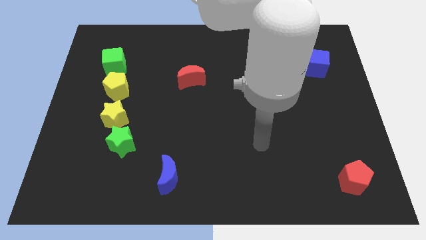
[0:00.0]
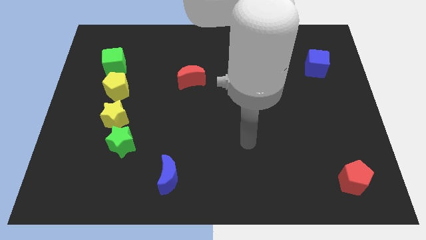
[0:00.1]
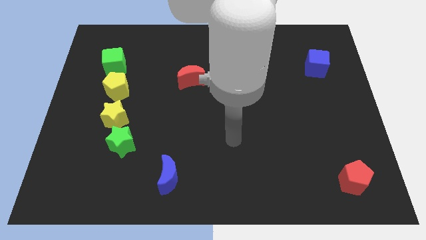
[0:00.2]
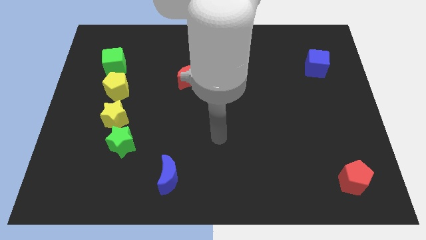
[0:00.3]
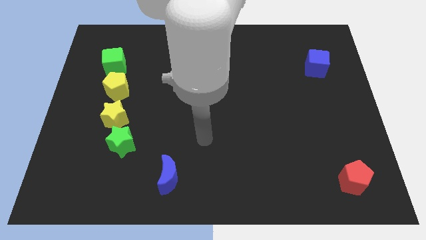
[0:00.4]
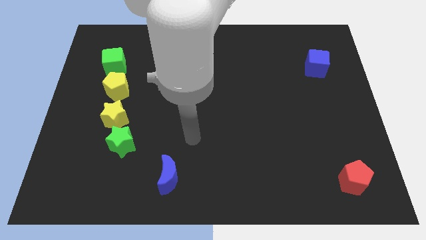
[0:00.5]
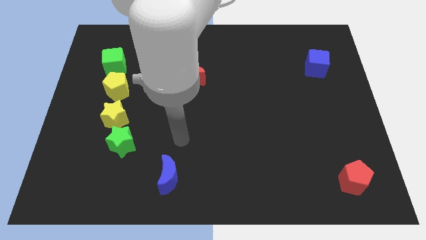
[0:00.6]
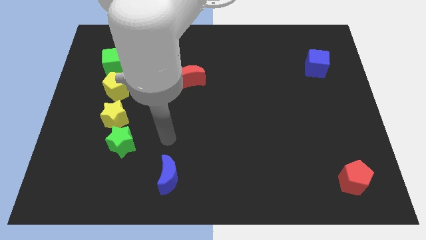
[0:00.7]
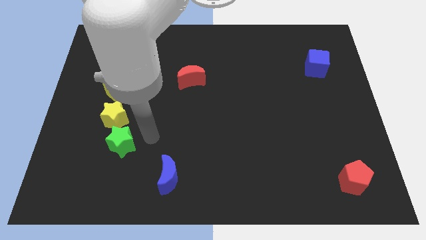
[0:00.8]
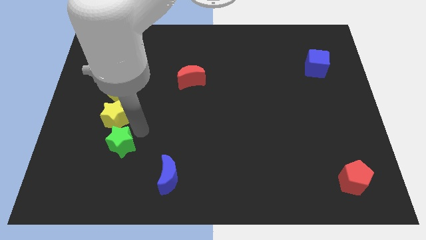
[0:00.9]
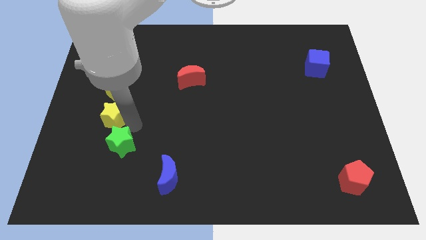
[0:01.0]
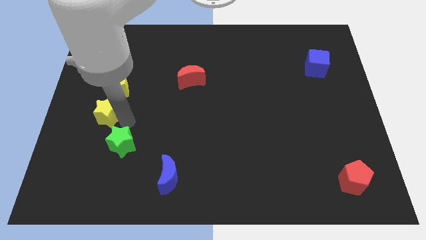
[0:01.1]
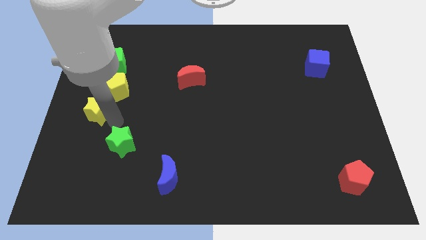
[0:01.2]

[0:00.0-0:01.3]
move the green star away from the yellow star

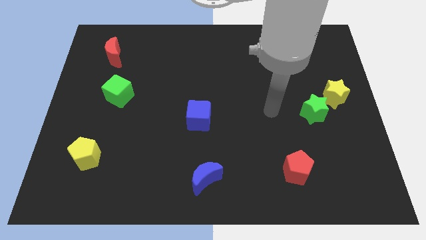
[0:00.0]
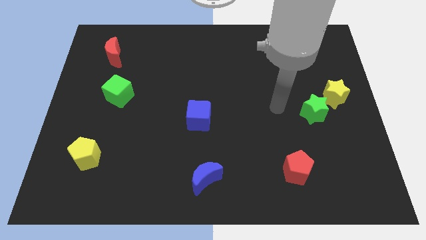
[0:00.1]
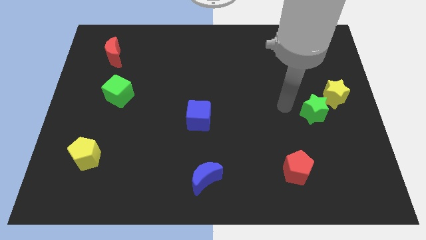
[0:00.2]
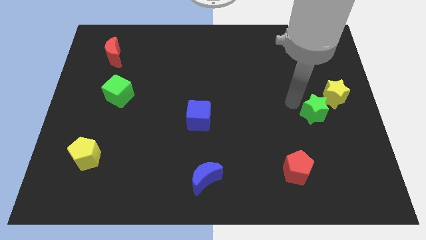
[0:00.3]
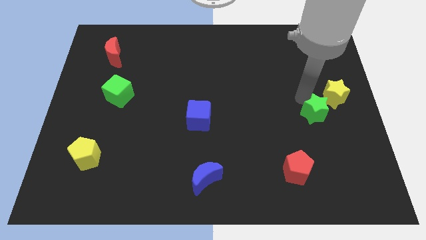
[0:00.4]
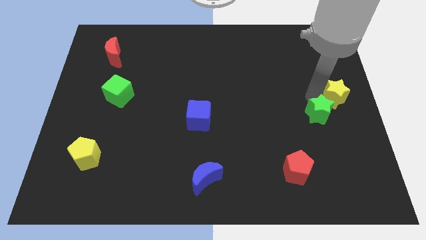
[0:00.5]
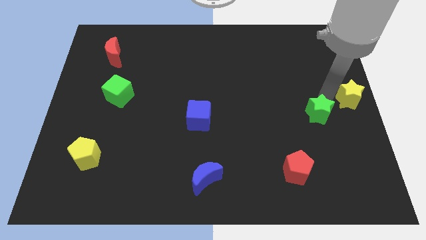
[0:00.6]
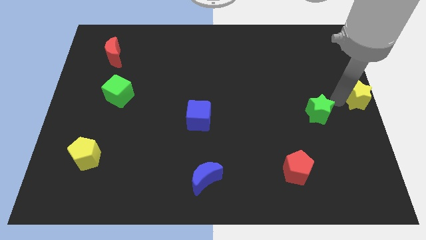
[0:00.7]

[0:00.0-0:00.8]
separate the green star from the yellow star

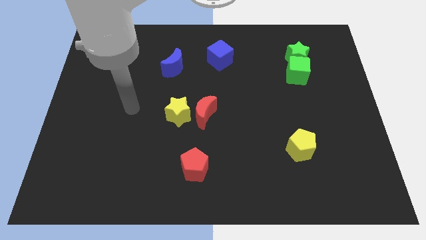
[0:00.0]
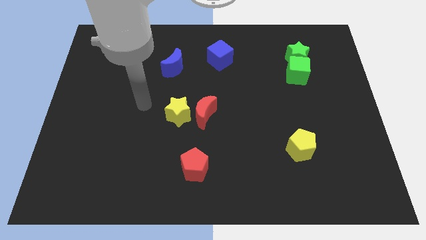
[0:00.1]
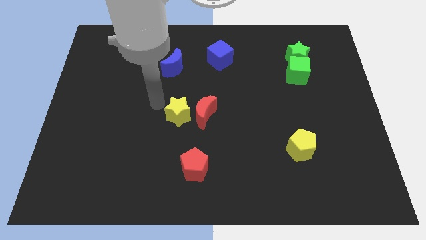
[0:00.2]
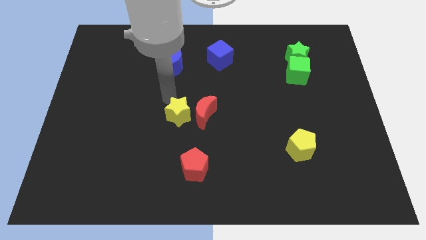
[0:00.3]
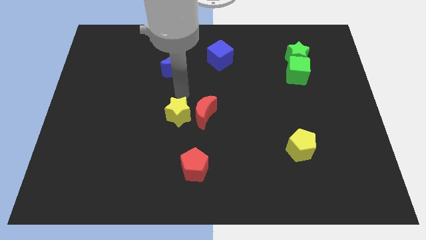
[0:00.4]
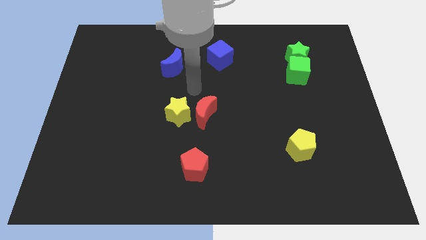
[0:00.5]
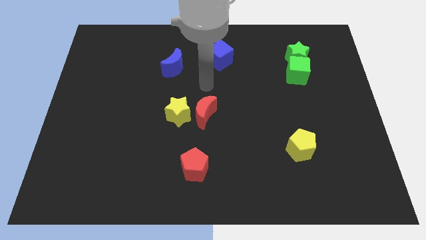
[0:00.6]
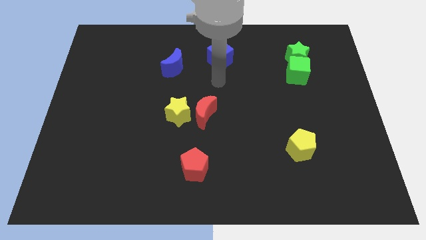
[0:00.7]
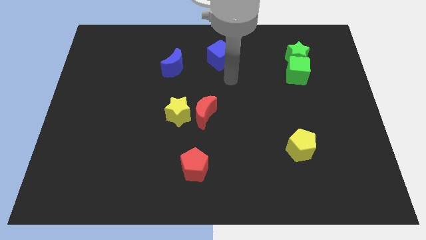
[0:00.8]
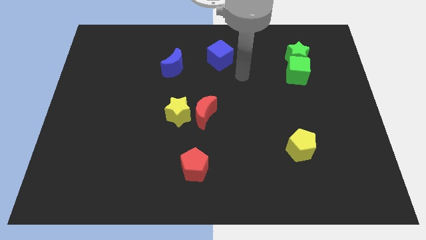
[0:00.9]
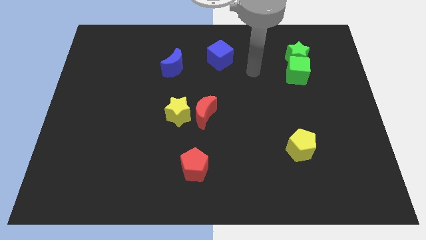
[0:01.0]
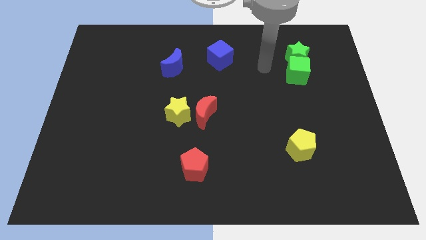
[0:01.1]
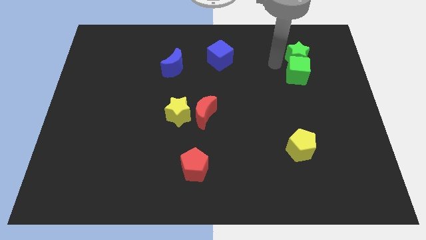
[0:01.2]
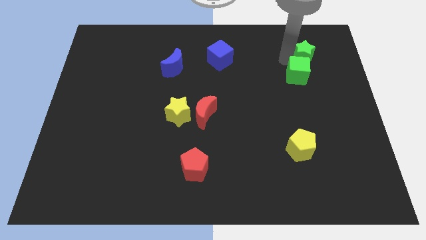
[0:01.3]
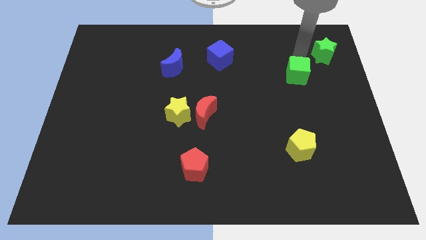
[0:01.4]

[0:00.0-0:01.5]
pull the green cube apart from the green star

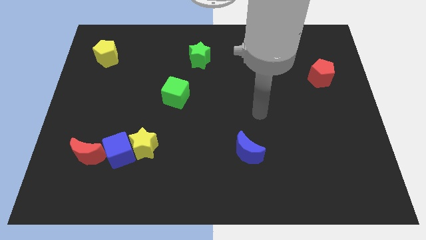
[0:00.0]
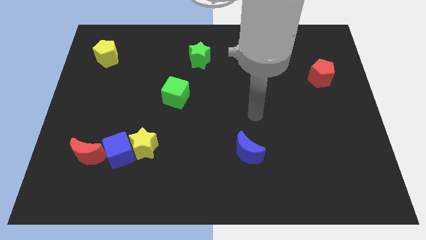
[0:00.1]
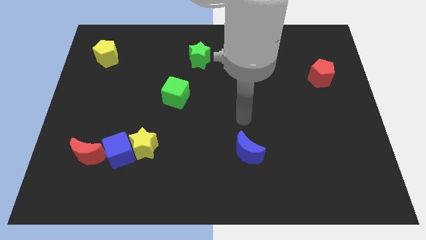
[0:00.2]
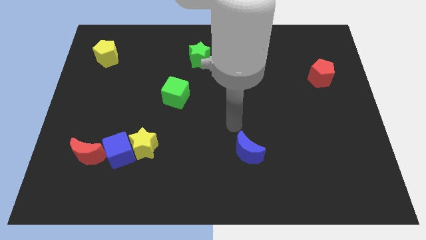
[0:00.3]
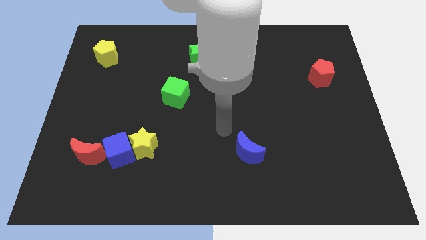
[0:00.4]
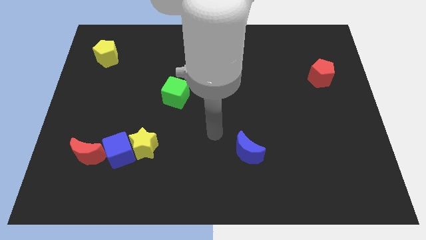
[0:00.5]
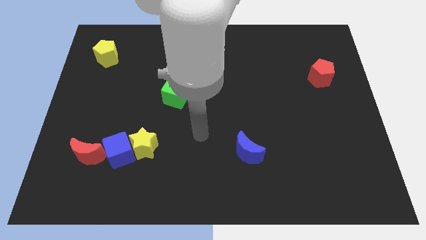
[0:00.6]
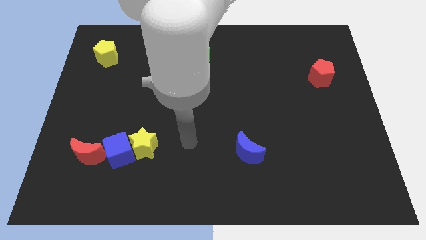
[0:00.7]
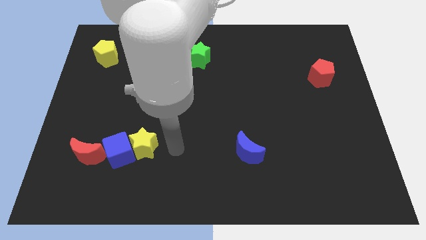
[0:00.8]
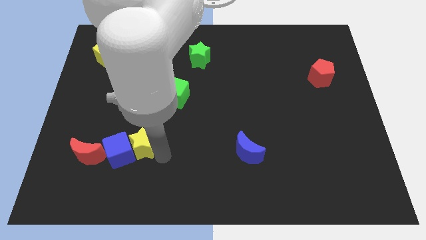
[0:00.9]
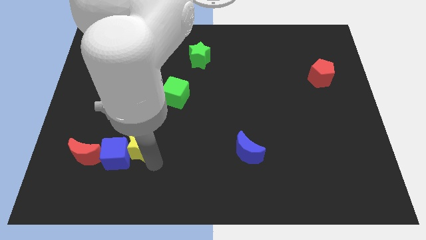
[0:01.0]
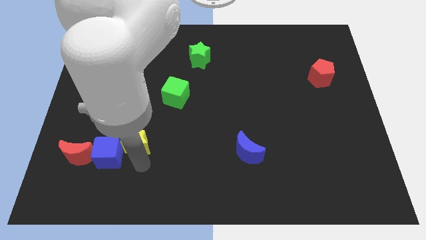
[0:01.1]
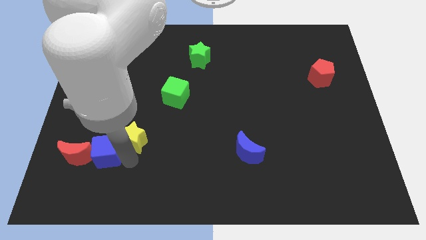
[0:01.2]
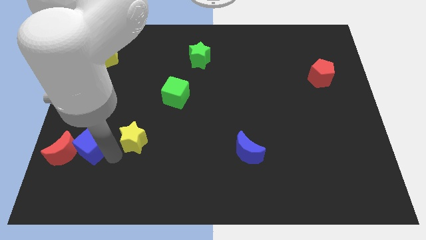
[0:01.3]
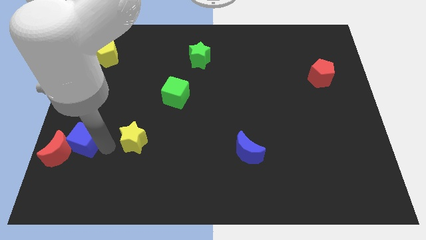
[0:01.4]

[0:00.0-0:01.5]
move the yellow star away from the blue cube

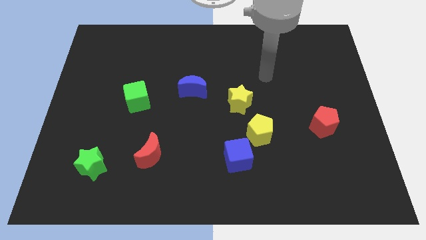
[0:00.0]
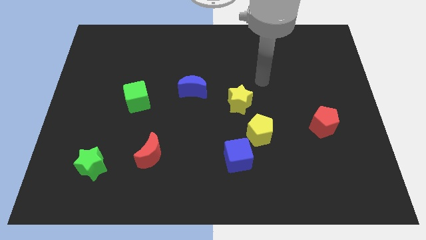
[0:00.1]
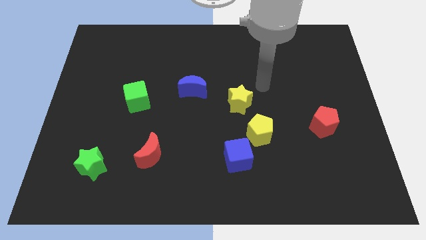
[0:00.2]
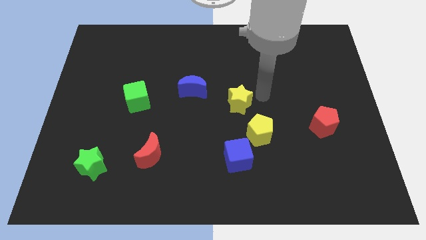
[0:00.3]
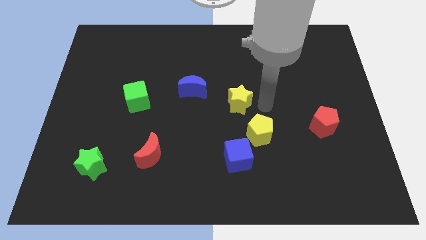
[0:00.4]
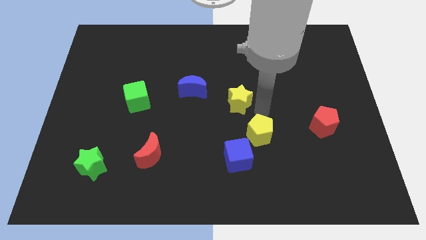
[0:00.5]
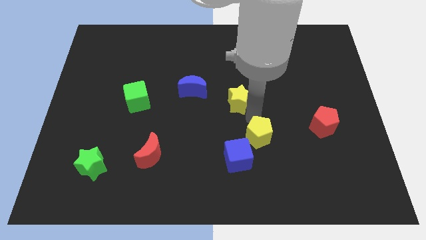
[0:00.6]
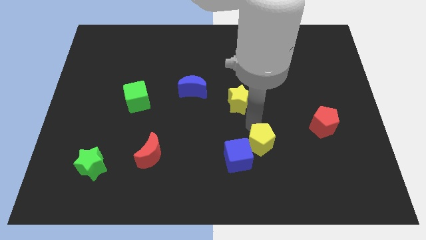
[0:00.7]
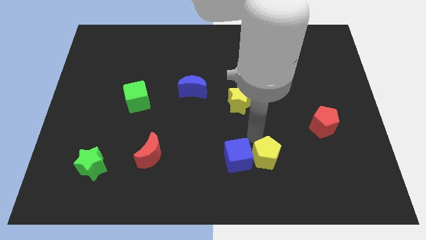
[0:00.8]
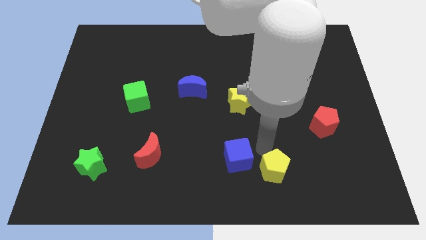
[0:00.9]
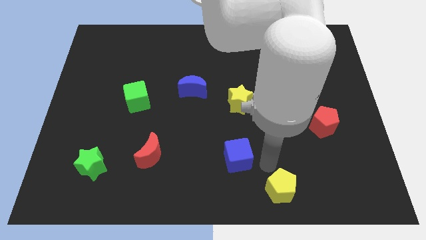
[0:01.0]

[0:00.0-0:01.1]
move the blue cube away from the yellow pentagon

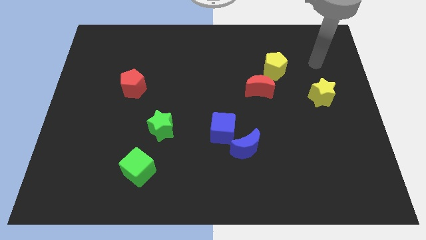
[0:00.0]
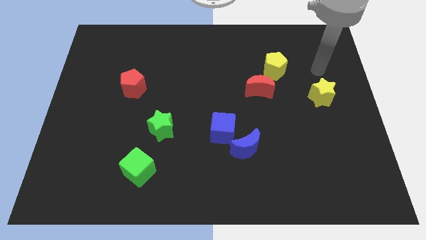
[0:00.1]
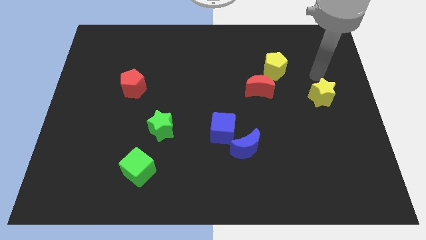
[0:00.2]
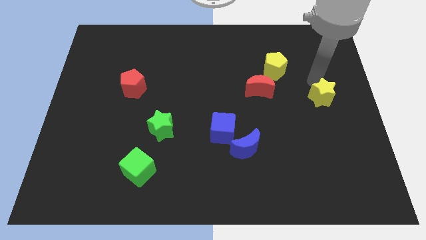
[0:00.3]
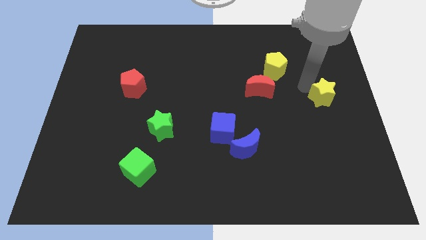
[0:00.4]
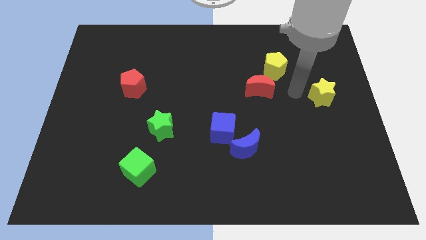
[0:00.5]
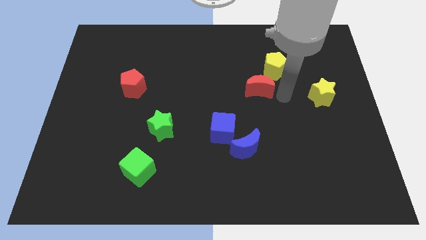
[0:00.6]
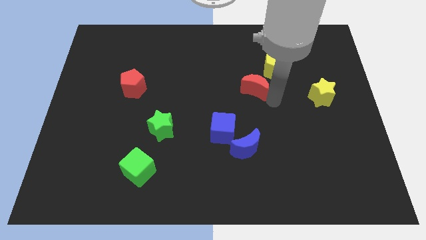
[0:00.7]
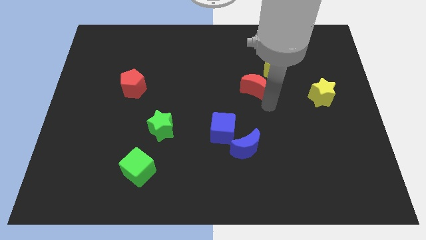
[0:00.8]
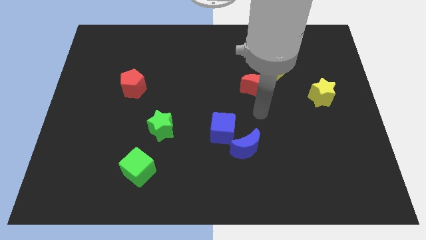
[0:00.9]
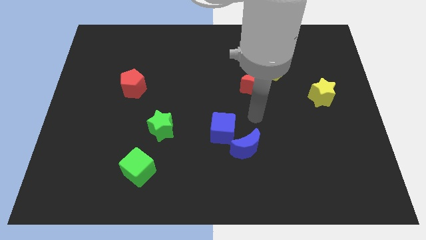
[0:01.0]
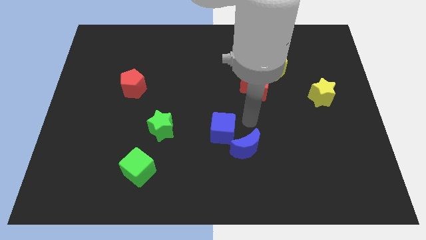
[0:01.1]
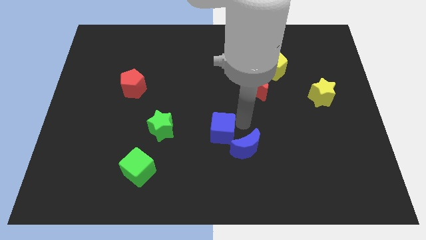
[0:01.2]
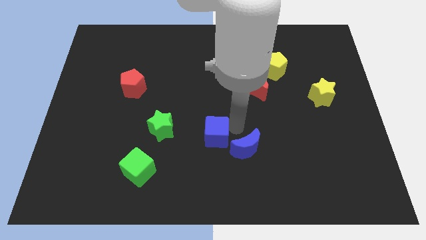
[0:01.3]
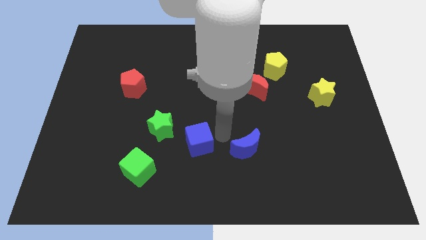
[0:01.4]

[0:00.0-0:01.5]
move the blue moon away from the blue cube

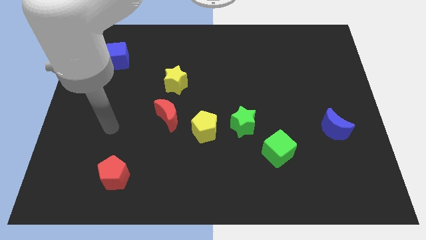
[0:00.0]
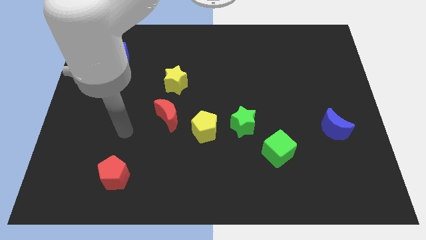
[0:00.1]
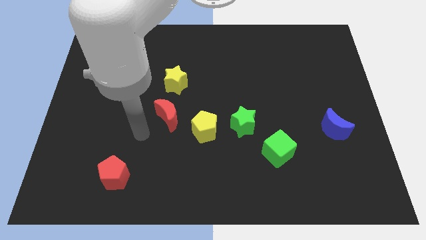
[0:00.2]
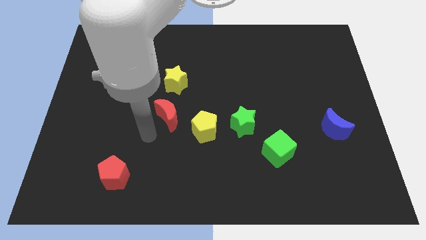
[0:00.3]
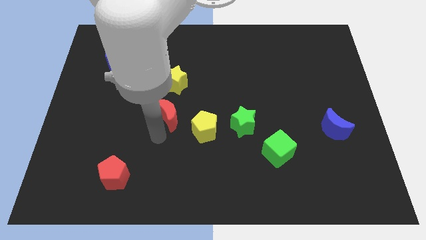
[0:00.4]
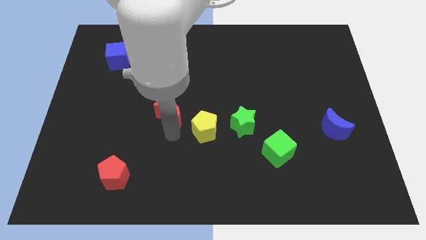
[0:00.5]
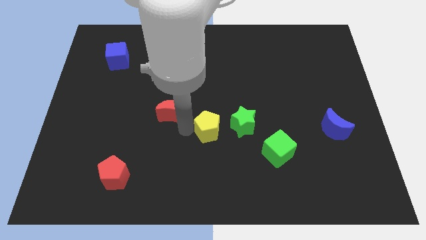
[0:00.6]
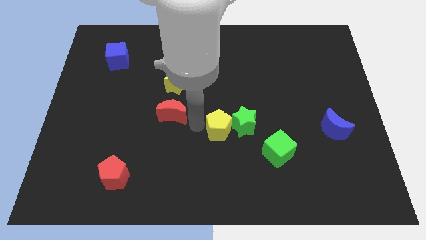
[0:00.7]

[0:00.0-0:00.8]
move the red moon away from the yellow pentagon

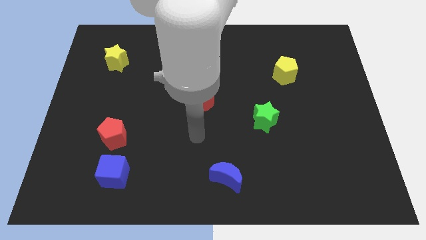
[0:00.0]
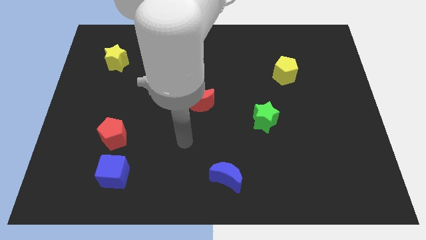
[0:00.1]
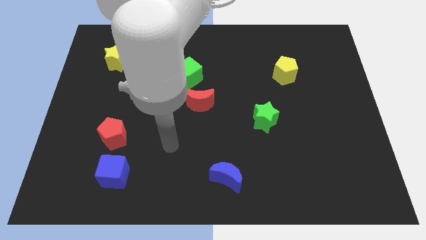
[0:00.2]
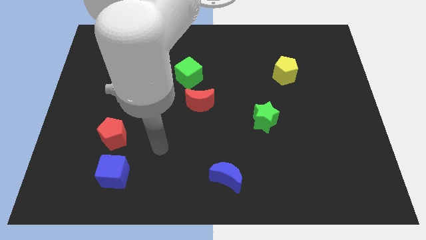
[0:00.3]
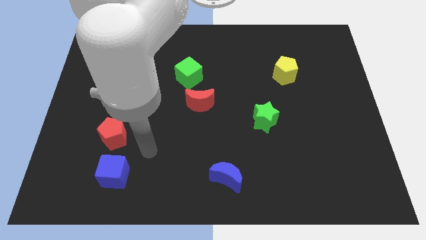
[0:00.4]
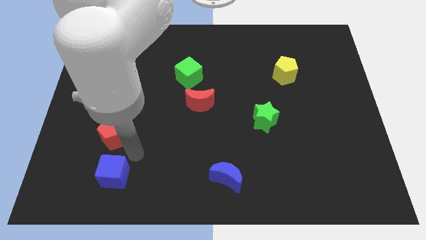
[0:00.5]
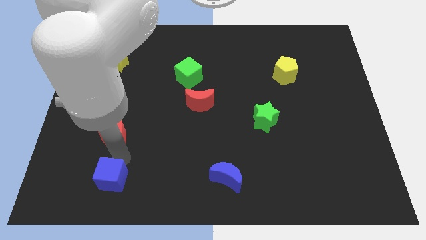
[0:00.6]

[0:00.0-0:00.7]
move the red pentagon away from the blue cube
